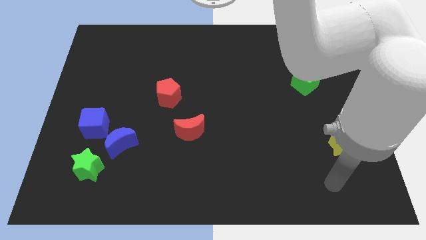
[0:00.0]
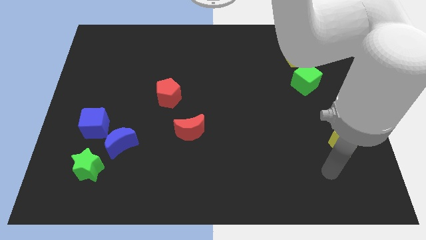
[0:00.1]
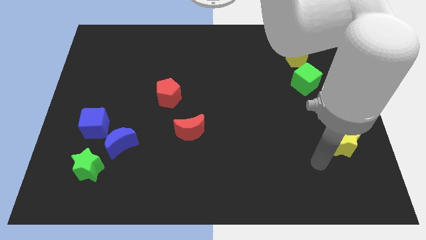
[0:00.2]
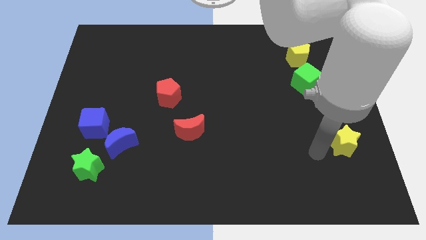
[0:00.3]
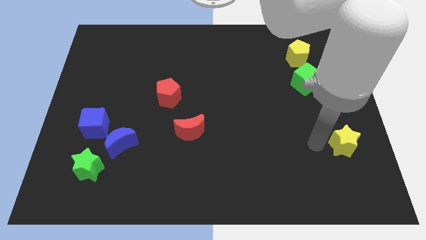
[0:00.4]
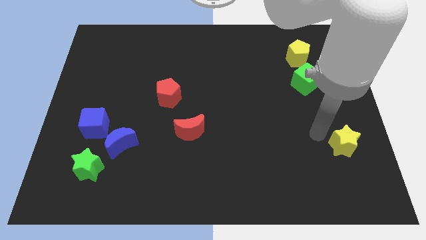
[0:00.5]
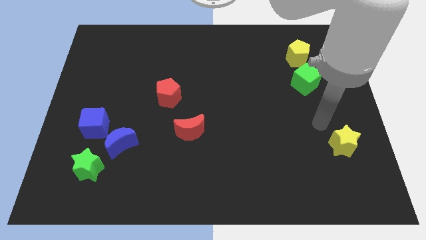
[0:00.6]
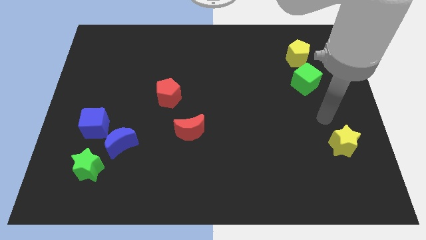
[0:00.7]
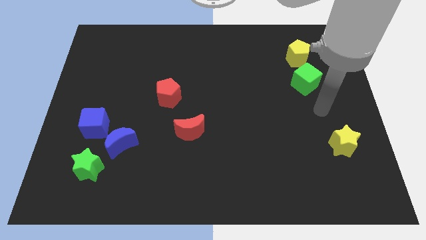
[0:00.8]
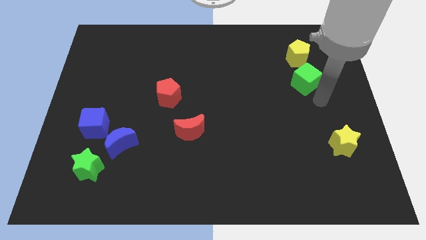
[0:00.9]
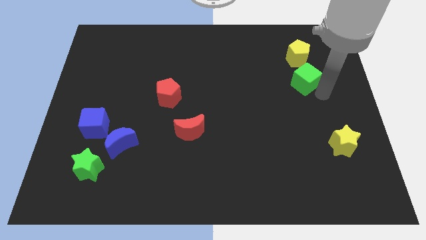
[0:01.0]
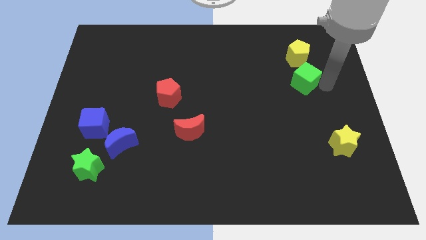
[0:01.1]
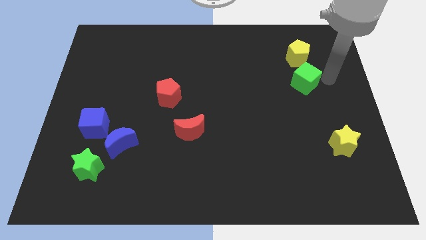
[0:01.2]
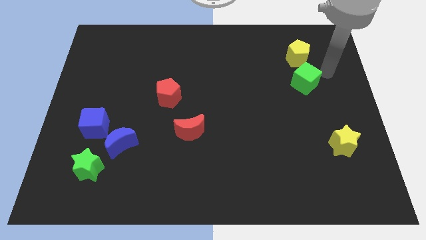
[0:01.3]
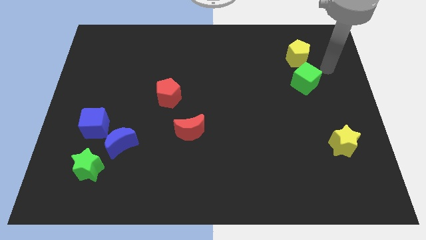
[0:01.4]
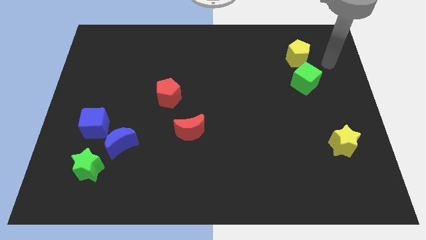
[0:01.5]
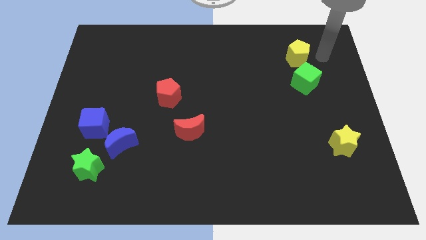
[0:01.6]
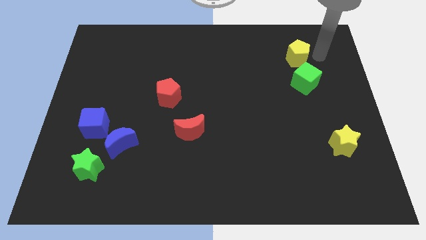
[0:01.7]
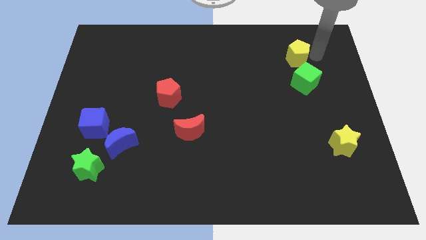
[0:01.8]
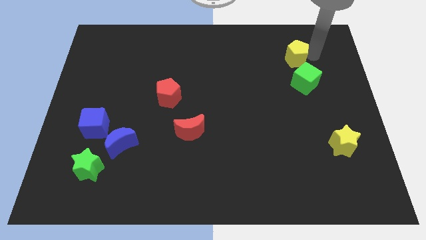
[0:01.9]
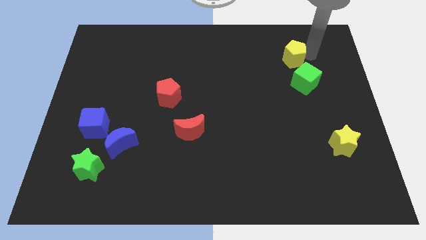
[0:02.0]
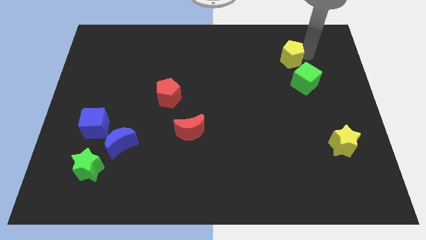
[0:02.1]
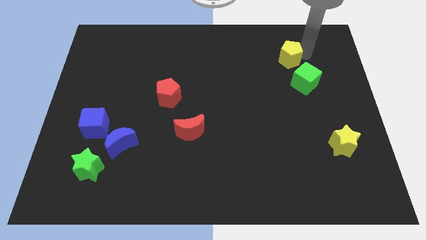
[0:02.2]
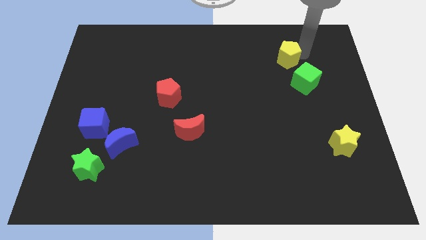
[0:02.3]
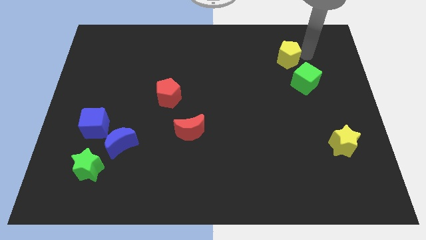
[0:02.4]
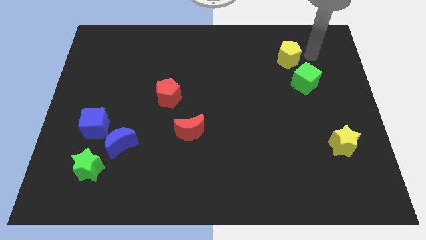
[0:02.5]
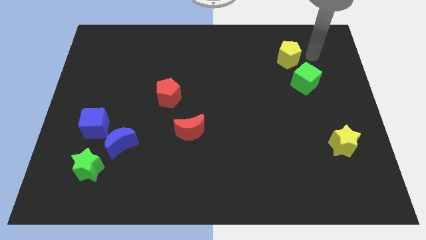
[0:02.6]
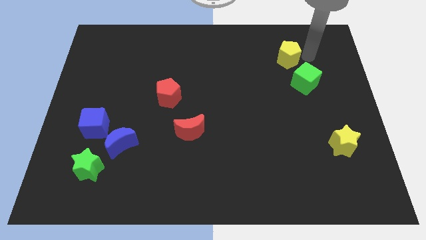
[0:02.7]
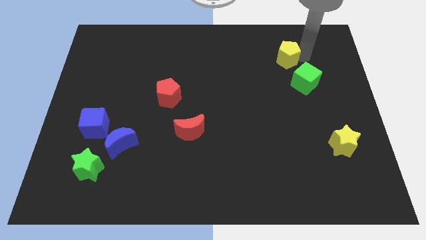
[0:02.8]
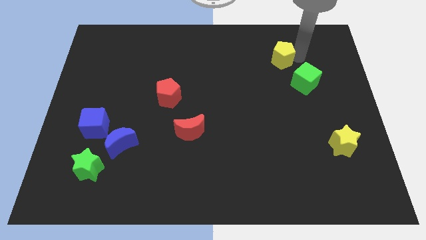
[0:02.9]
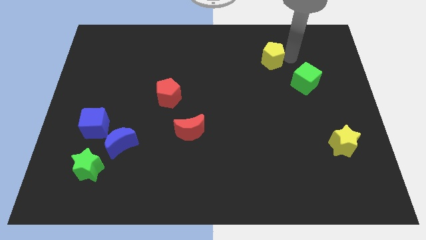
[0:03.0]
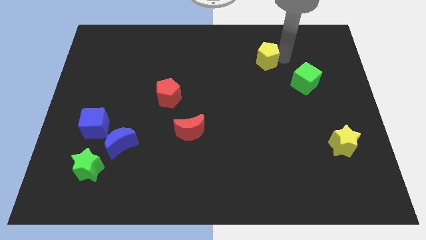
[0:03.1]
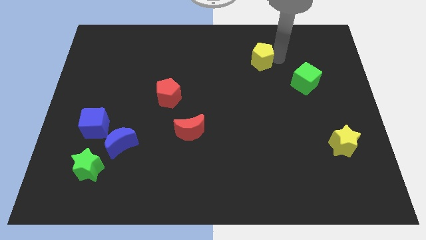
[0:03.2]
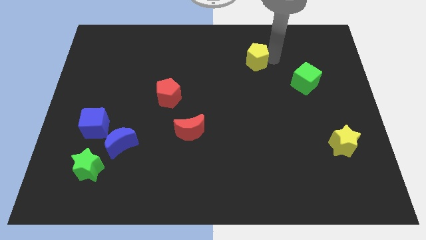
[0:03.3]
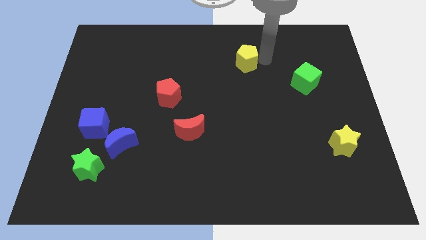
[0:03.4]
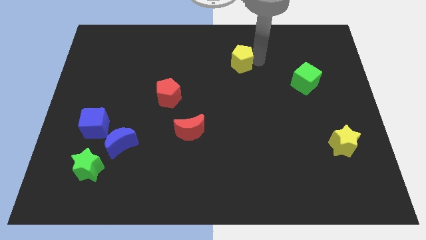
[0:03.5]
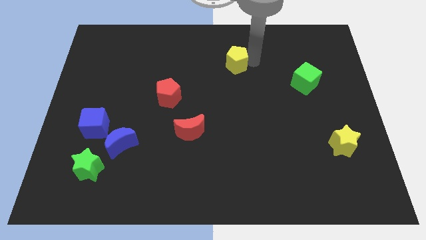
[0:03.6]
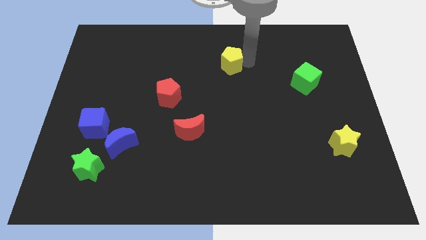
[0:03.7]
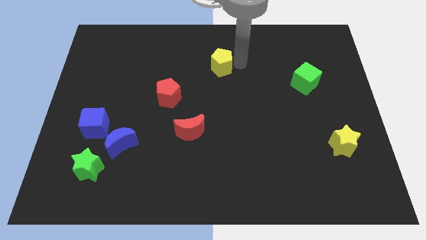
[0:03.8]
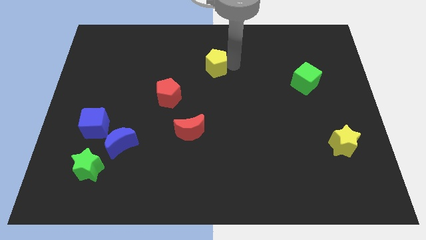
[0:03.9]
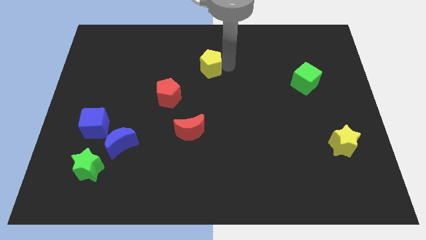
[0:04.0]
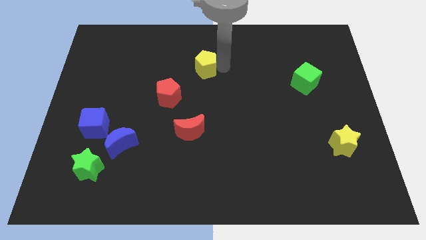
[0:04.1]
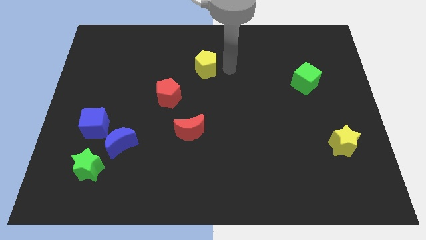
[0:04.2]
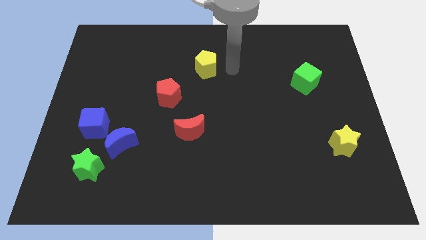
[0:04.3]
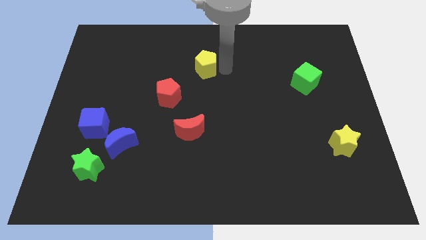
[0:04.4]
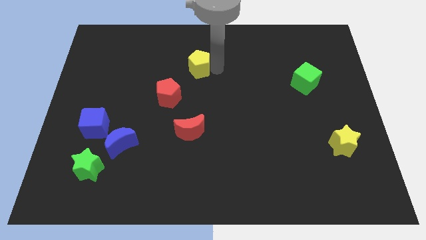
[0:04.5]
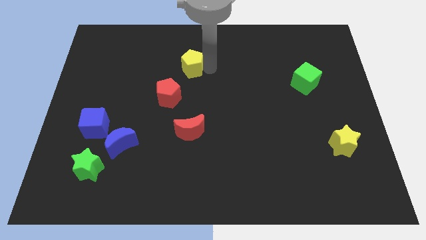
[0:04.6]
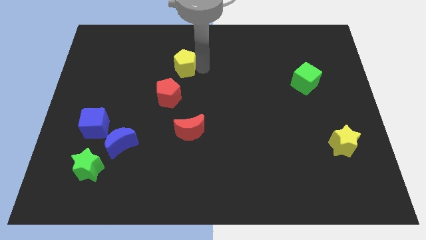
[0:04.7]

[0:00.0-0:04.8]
push the yellow pentagon above the red pentagon

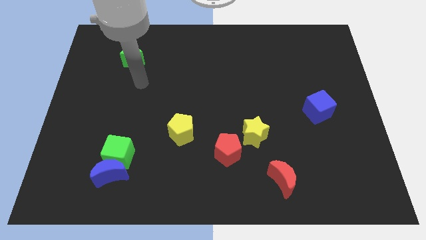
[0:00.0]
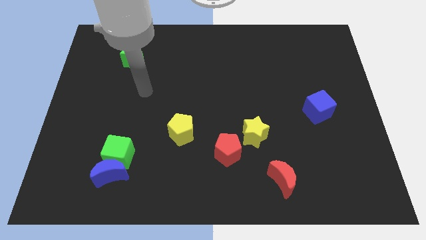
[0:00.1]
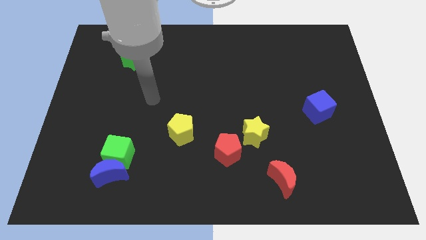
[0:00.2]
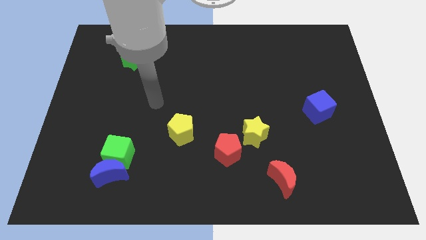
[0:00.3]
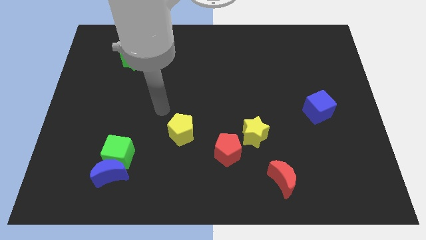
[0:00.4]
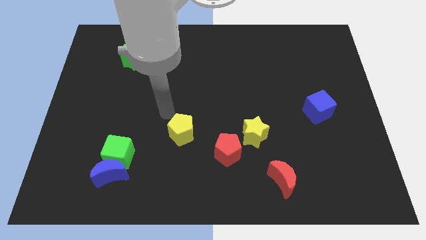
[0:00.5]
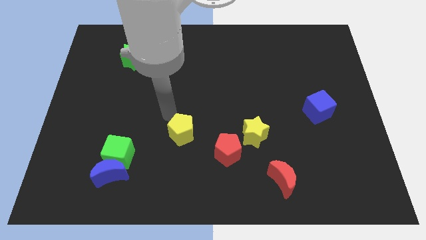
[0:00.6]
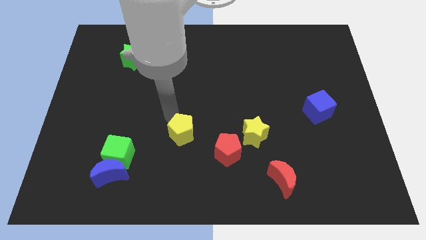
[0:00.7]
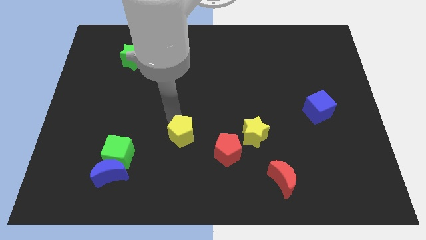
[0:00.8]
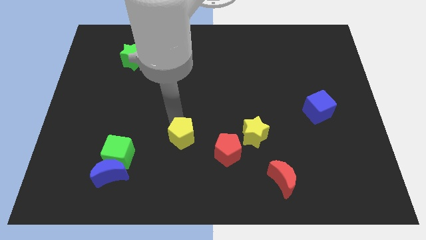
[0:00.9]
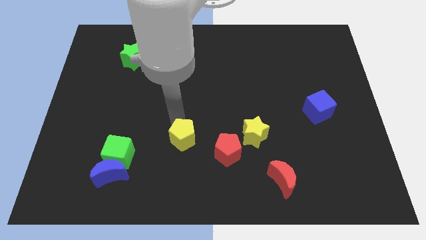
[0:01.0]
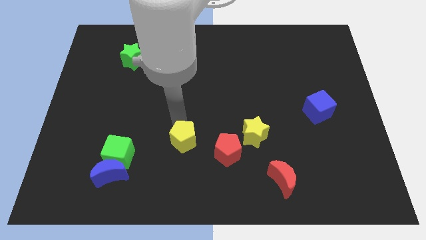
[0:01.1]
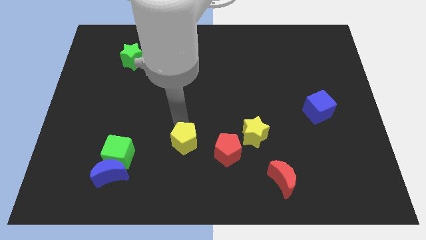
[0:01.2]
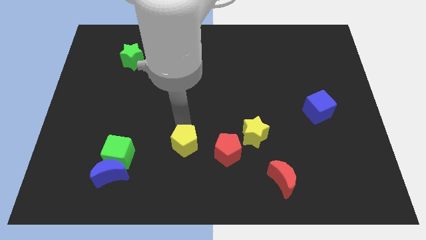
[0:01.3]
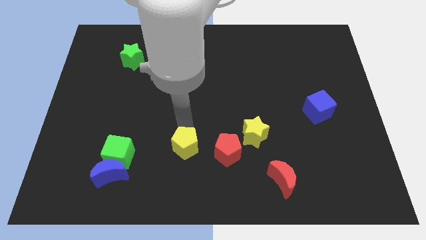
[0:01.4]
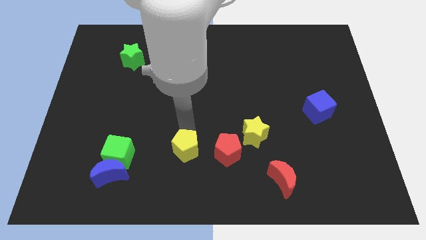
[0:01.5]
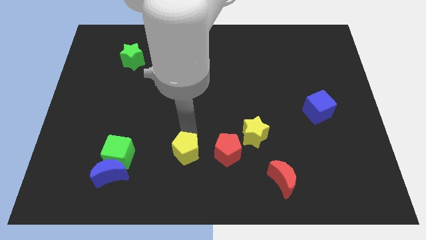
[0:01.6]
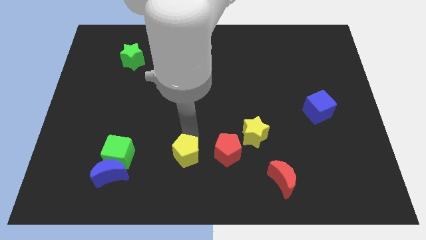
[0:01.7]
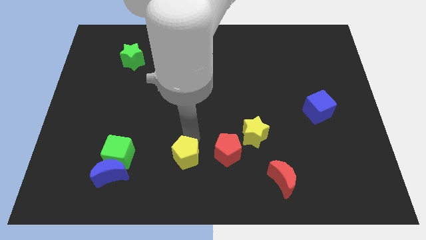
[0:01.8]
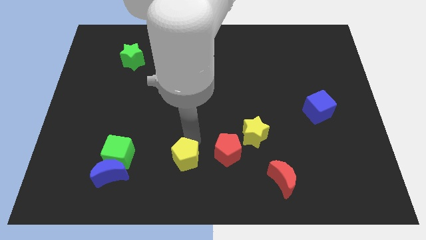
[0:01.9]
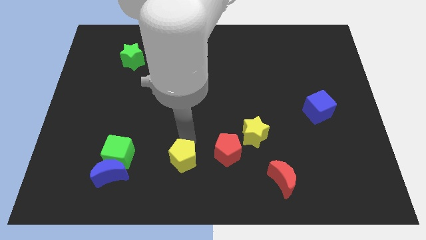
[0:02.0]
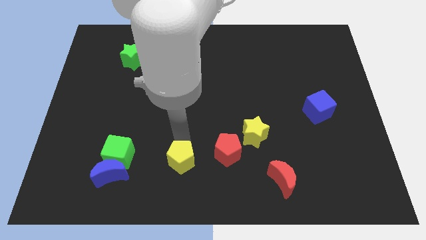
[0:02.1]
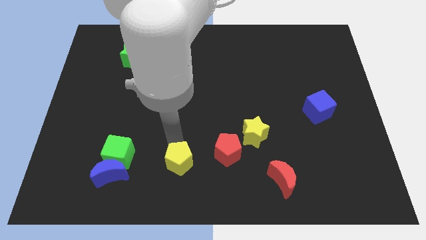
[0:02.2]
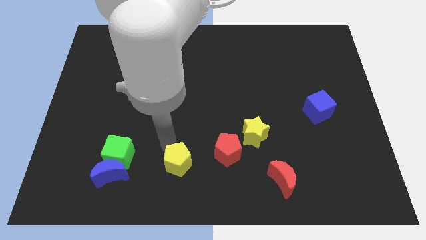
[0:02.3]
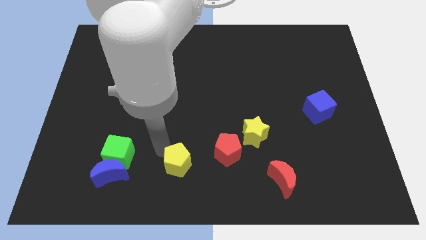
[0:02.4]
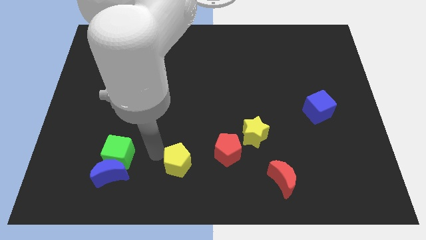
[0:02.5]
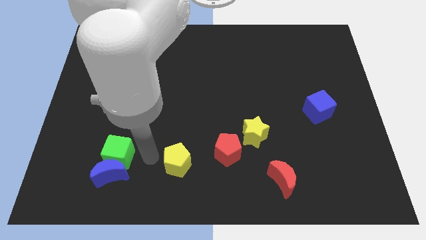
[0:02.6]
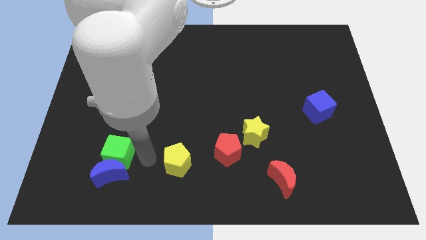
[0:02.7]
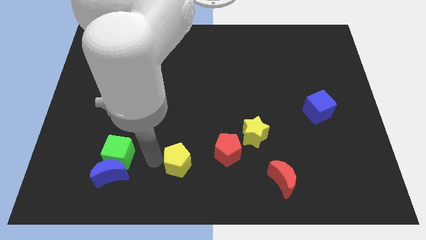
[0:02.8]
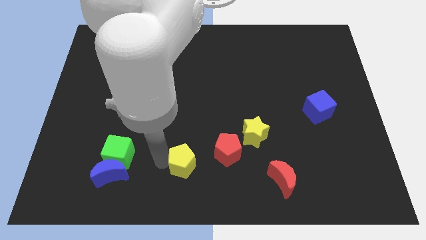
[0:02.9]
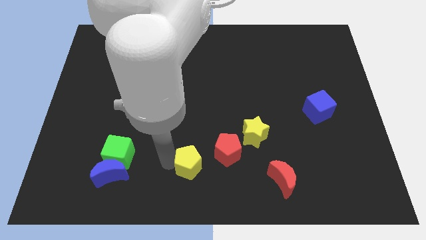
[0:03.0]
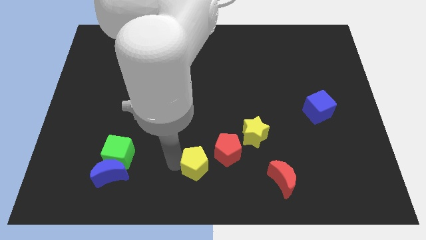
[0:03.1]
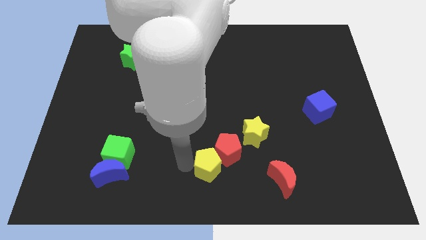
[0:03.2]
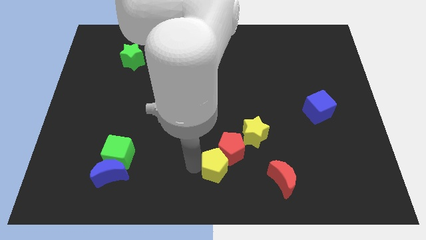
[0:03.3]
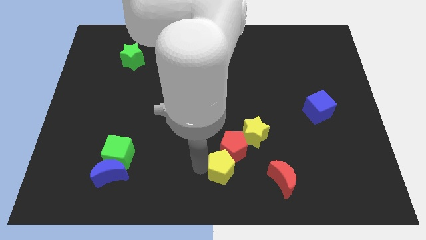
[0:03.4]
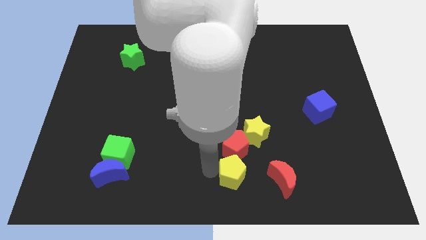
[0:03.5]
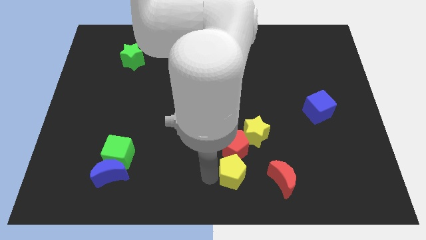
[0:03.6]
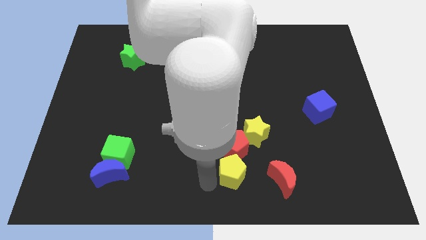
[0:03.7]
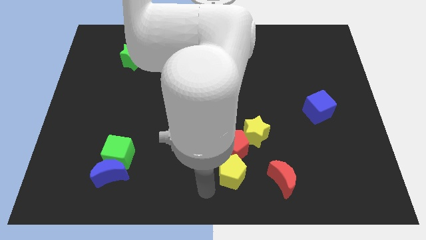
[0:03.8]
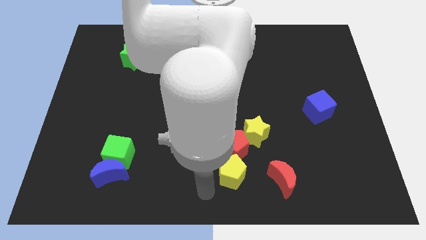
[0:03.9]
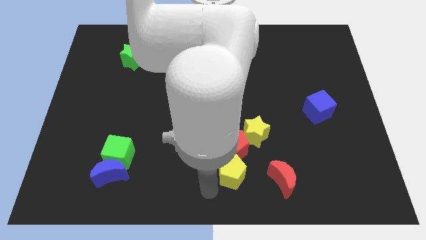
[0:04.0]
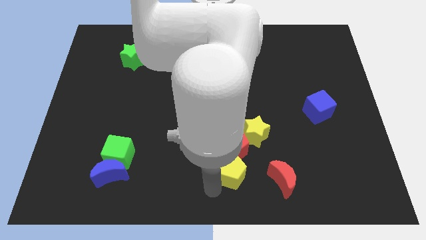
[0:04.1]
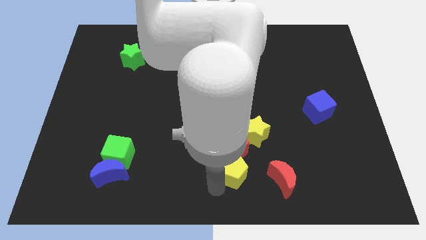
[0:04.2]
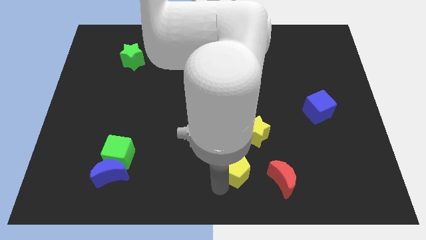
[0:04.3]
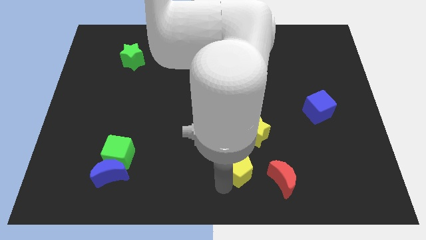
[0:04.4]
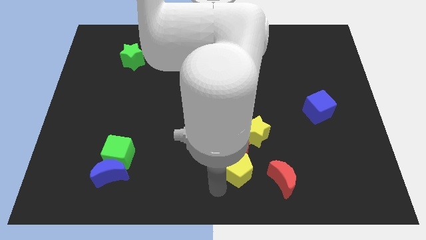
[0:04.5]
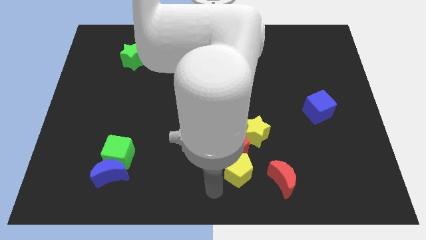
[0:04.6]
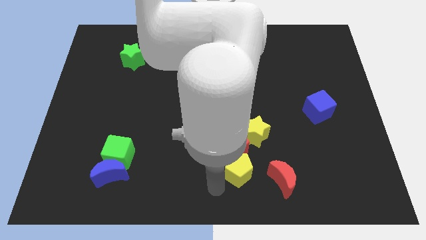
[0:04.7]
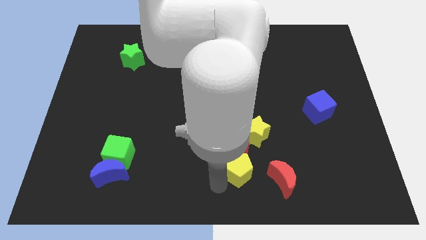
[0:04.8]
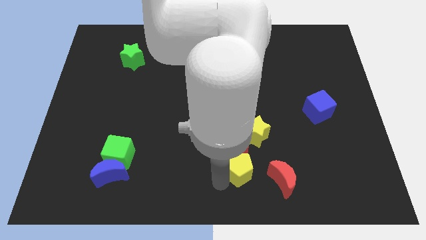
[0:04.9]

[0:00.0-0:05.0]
slide the yellow pentagon to the top left side of the red moon
